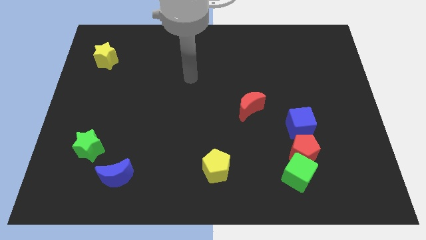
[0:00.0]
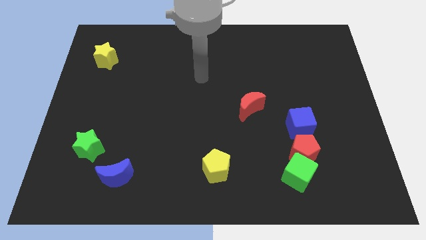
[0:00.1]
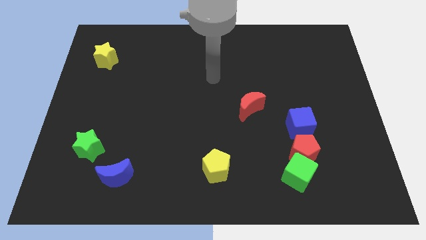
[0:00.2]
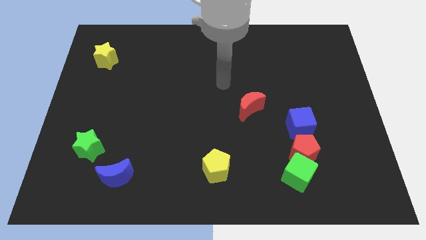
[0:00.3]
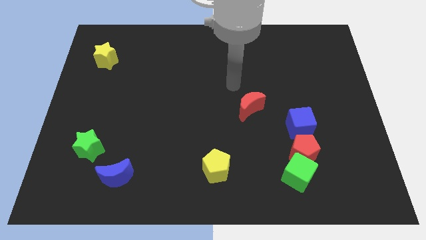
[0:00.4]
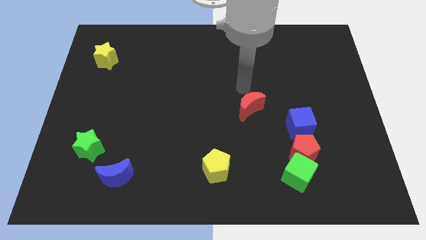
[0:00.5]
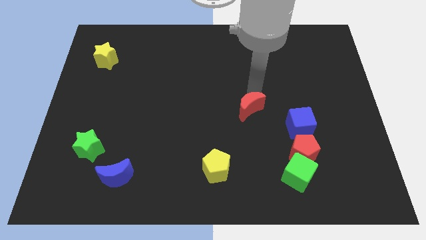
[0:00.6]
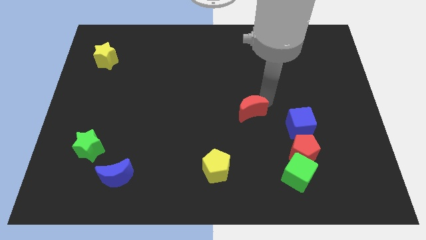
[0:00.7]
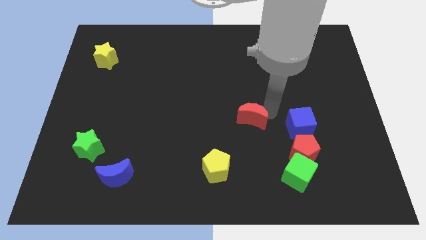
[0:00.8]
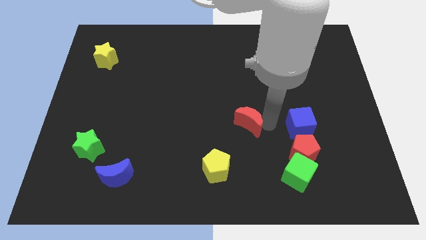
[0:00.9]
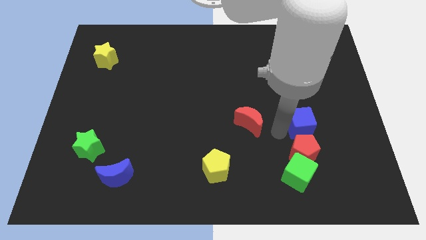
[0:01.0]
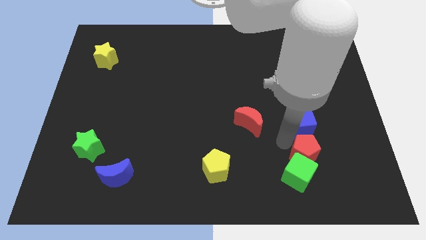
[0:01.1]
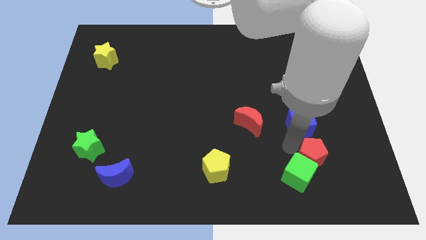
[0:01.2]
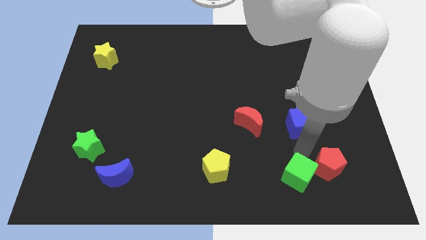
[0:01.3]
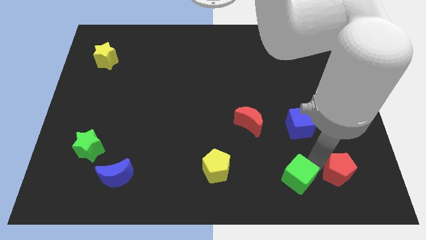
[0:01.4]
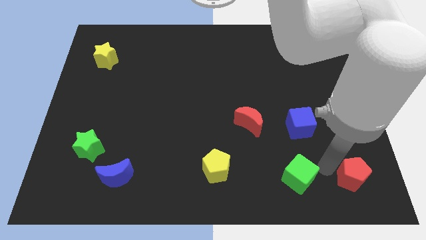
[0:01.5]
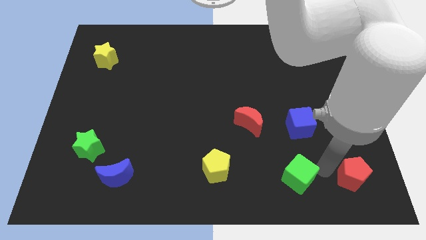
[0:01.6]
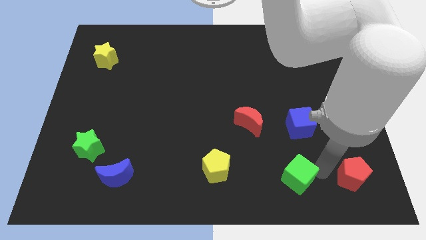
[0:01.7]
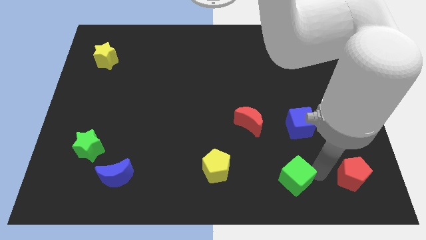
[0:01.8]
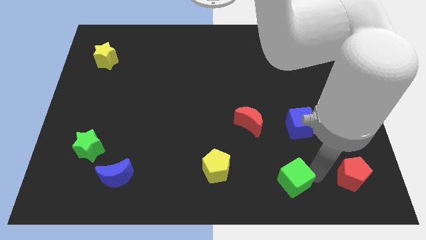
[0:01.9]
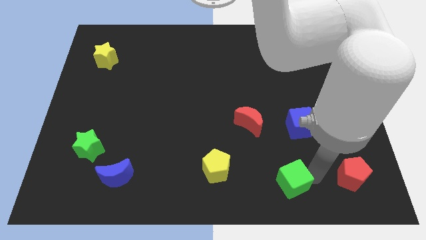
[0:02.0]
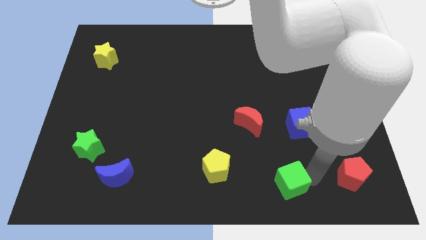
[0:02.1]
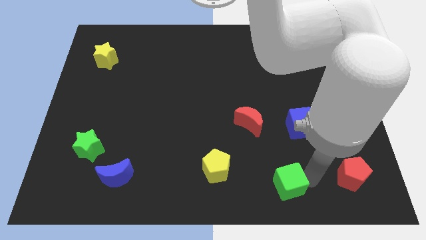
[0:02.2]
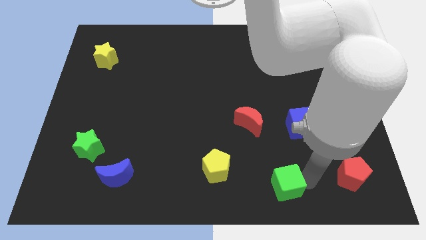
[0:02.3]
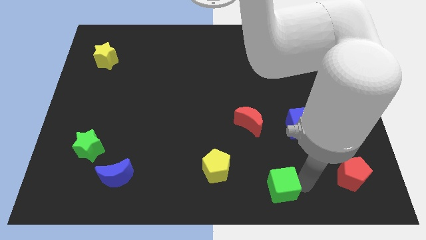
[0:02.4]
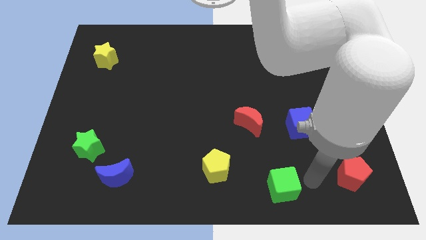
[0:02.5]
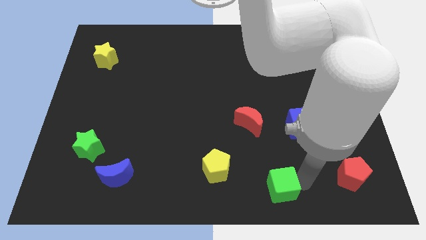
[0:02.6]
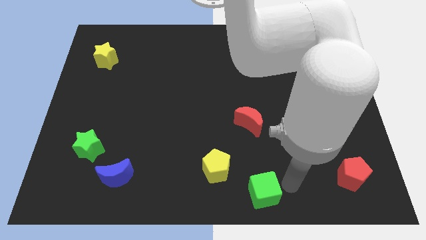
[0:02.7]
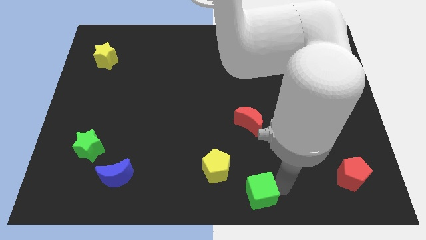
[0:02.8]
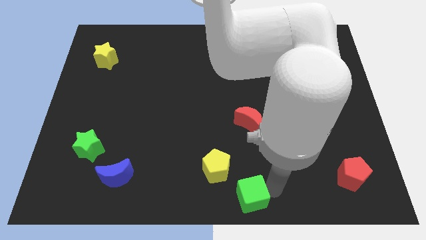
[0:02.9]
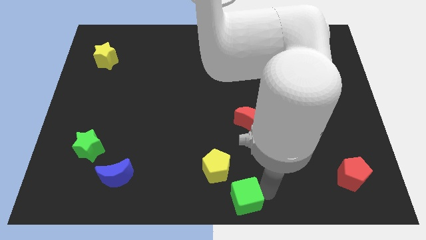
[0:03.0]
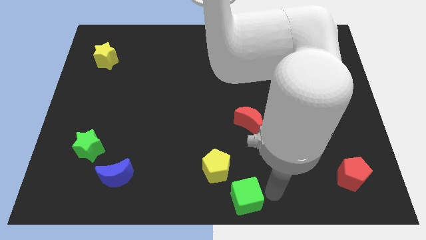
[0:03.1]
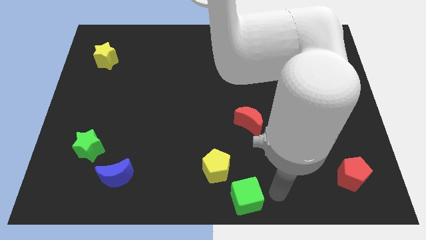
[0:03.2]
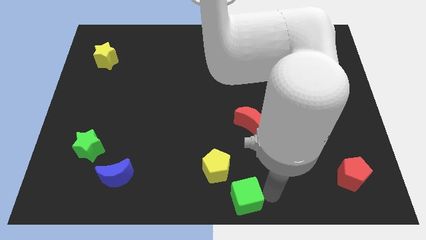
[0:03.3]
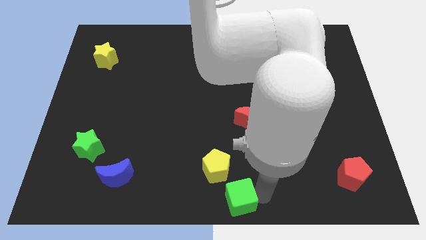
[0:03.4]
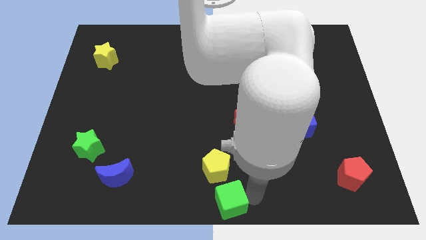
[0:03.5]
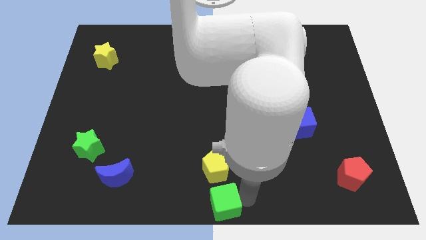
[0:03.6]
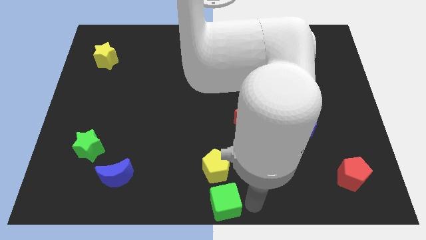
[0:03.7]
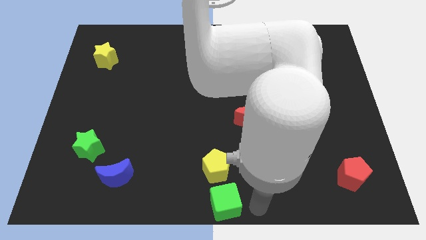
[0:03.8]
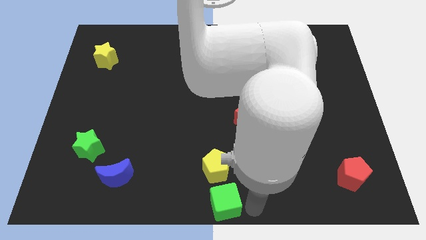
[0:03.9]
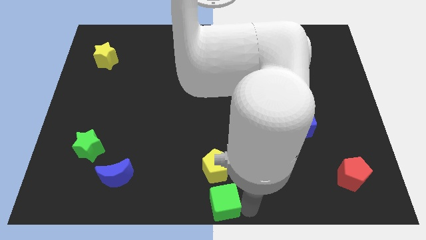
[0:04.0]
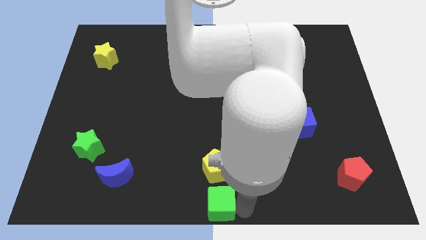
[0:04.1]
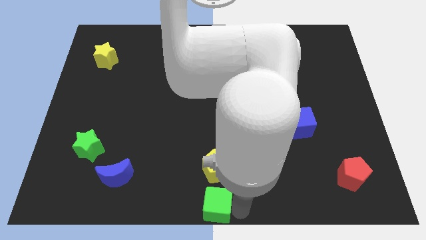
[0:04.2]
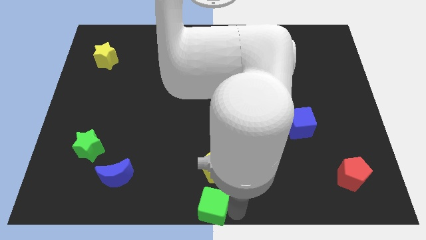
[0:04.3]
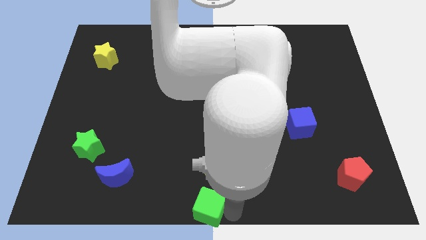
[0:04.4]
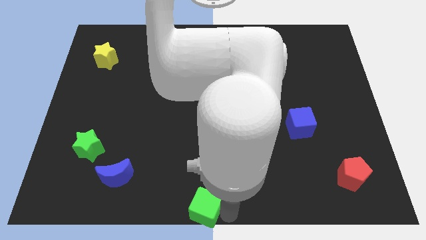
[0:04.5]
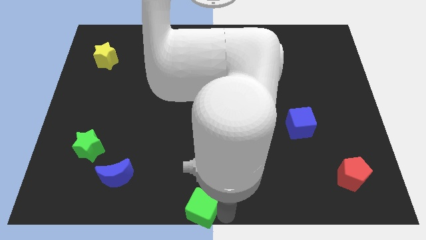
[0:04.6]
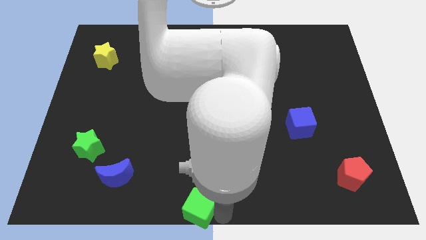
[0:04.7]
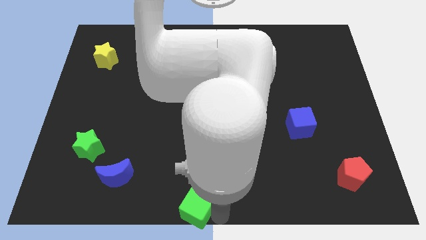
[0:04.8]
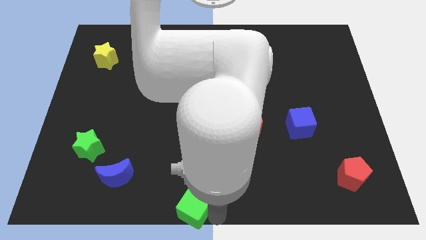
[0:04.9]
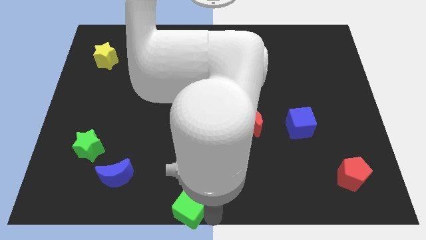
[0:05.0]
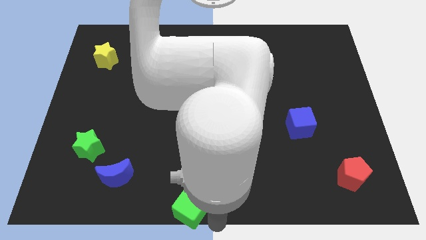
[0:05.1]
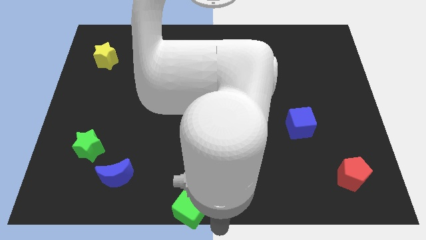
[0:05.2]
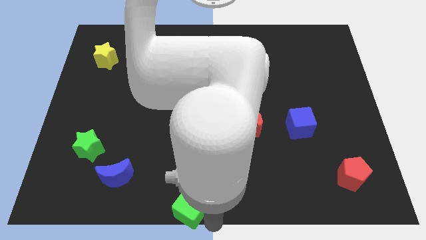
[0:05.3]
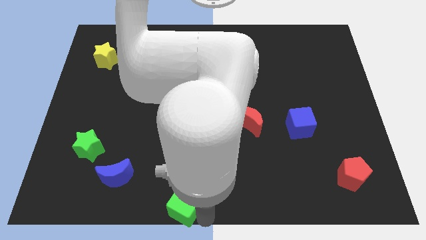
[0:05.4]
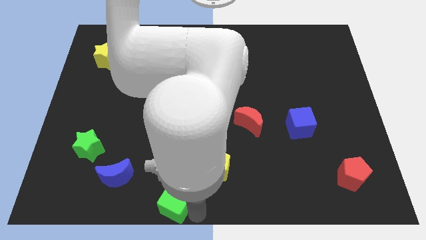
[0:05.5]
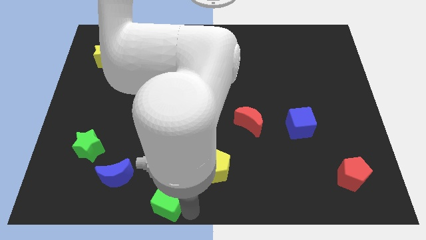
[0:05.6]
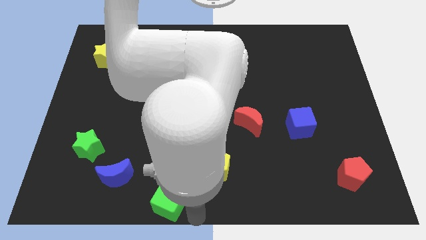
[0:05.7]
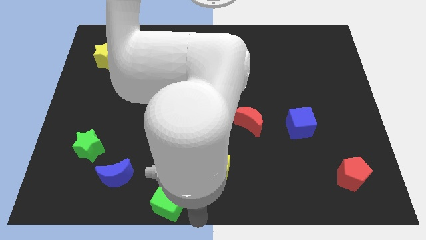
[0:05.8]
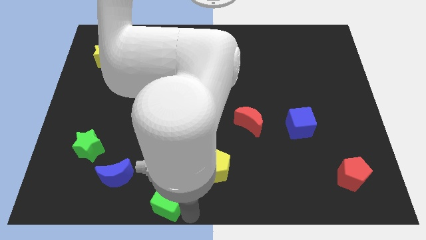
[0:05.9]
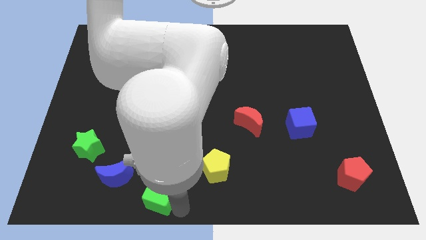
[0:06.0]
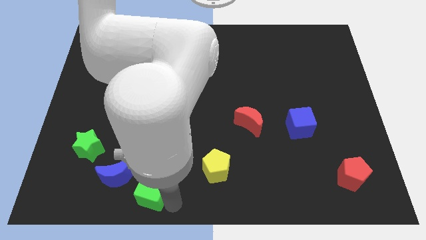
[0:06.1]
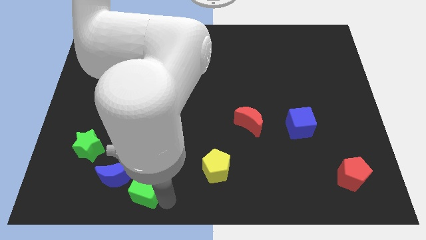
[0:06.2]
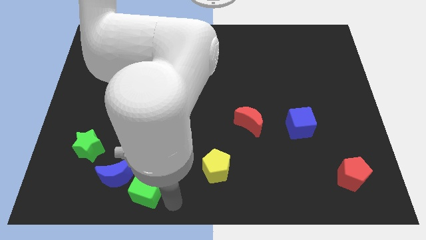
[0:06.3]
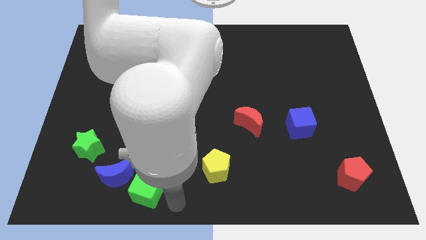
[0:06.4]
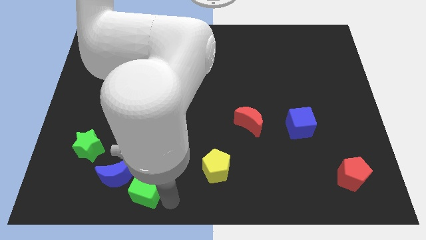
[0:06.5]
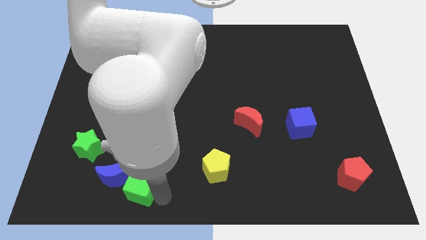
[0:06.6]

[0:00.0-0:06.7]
put the green cube next to the blue moon
